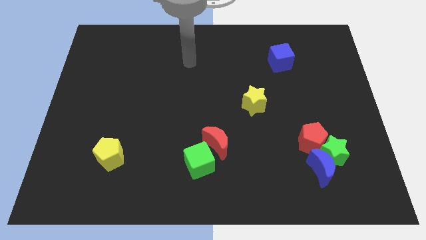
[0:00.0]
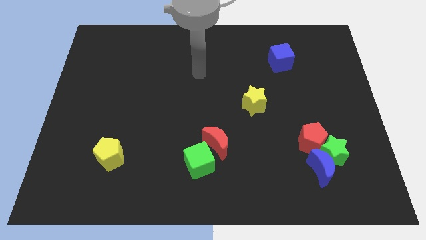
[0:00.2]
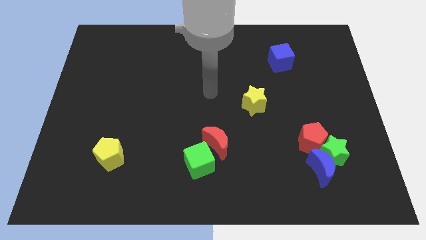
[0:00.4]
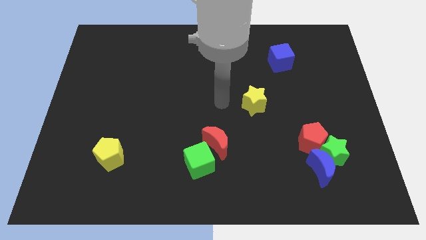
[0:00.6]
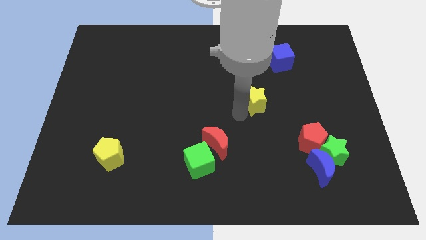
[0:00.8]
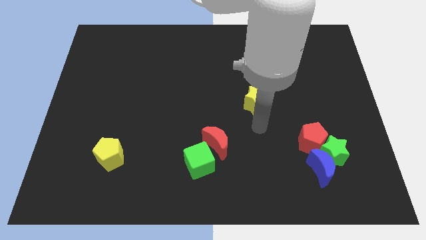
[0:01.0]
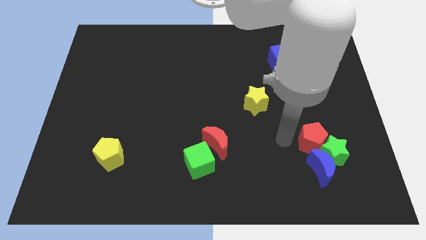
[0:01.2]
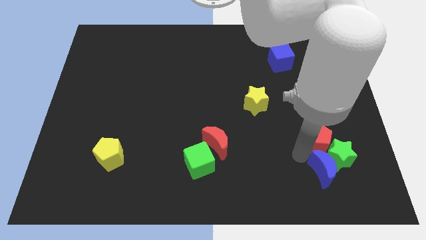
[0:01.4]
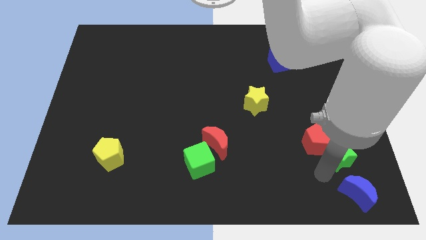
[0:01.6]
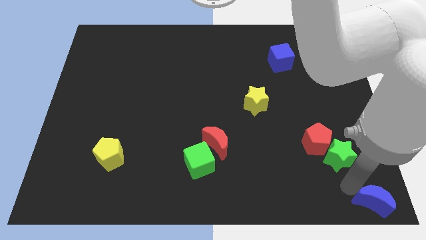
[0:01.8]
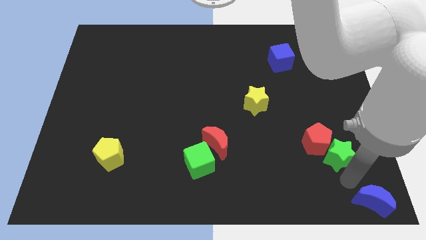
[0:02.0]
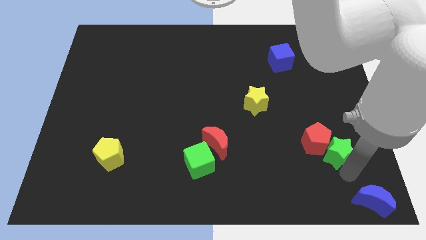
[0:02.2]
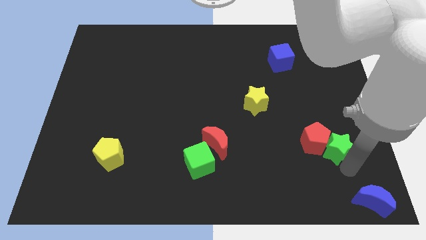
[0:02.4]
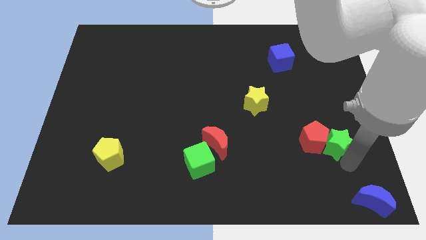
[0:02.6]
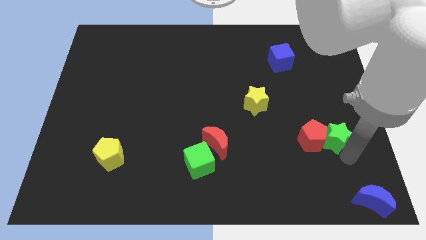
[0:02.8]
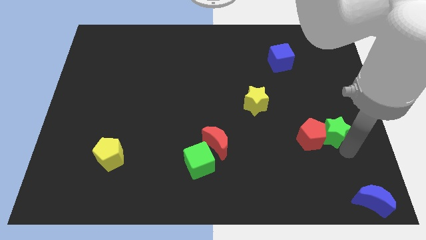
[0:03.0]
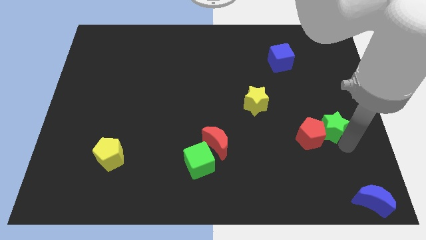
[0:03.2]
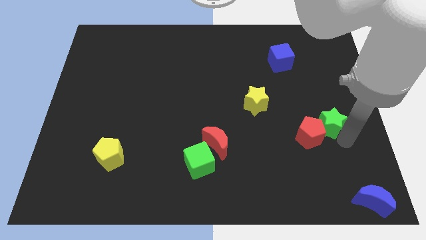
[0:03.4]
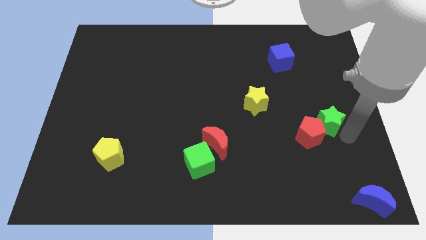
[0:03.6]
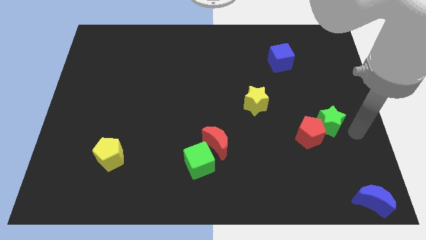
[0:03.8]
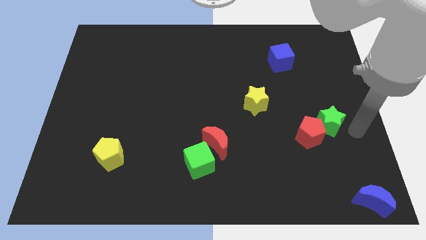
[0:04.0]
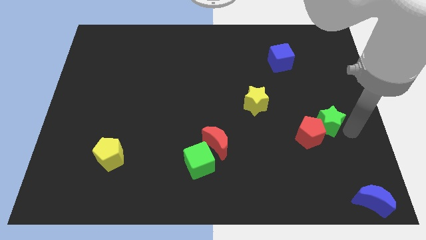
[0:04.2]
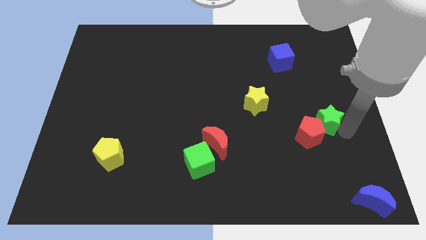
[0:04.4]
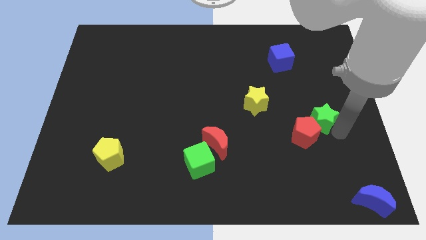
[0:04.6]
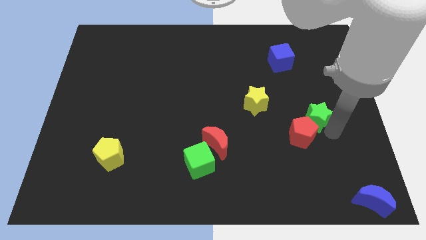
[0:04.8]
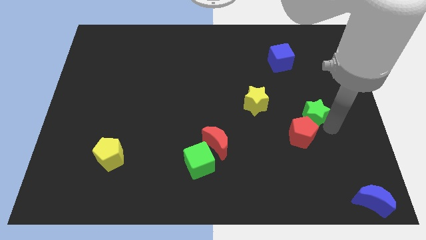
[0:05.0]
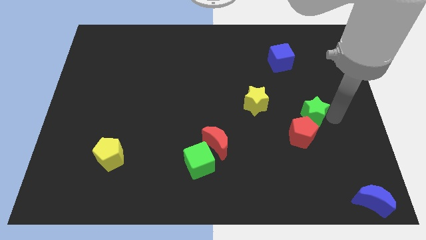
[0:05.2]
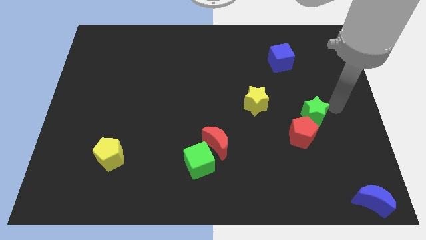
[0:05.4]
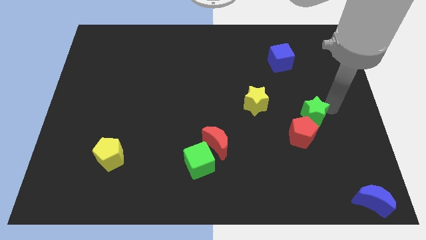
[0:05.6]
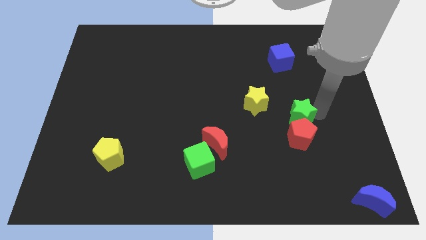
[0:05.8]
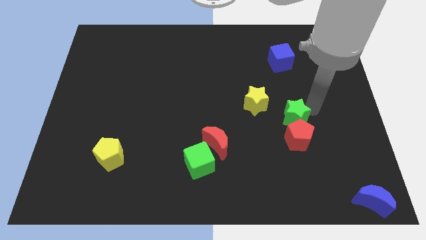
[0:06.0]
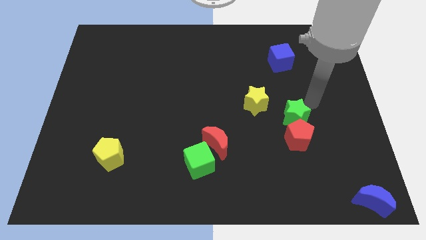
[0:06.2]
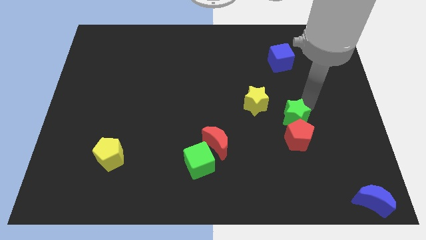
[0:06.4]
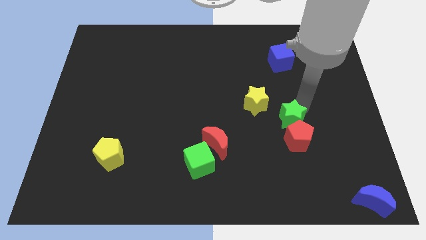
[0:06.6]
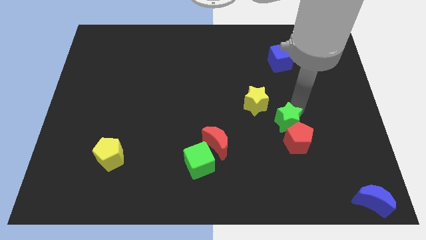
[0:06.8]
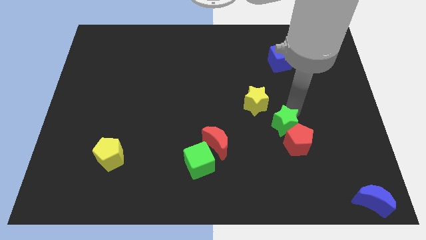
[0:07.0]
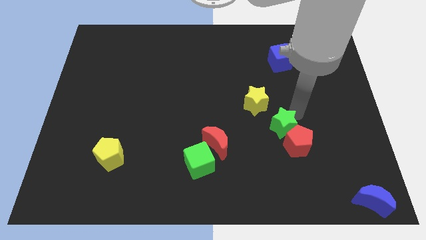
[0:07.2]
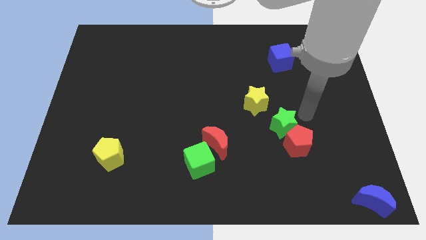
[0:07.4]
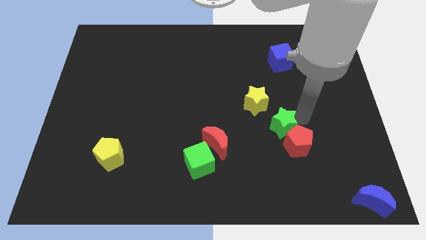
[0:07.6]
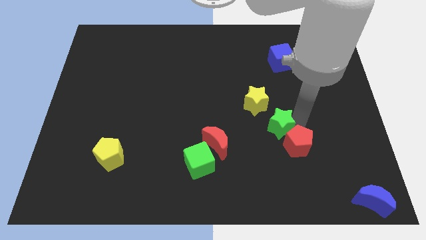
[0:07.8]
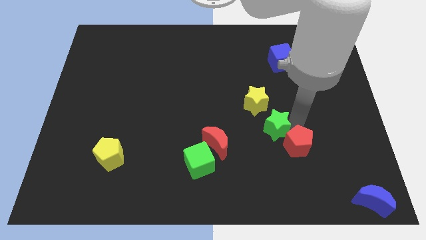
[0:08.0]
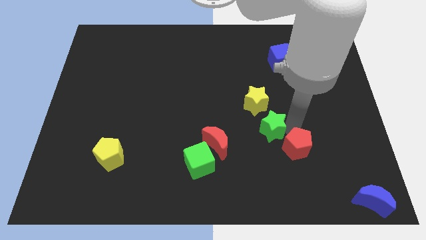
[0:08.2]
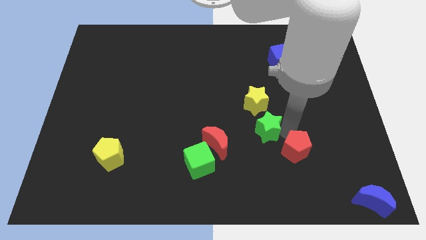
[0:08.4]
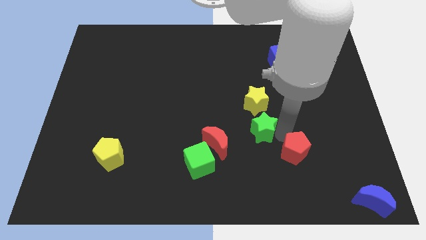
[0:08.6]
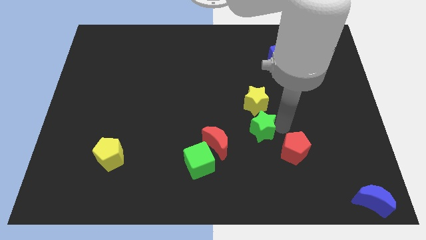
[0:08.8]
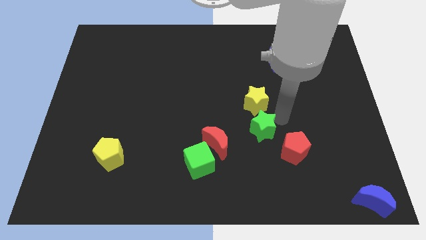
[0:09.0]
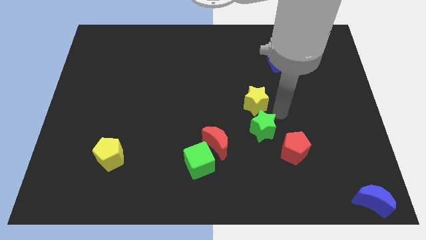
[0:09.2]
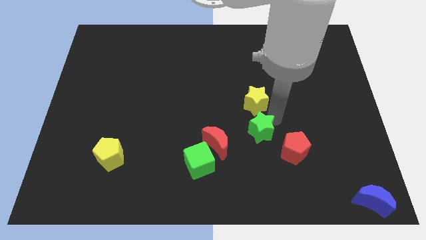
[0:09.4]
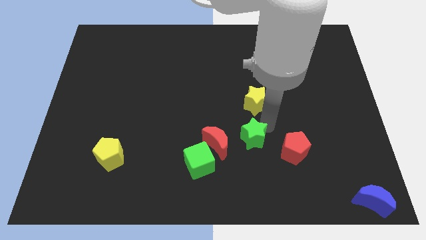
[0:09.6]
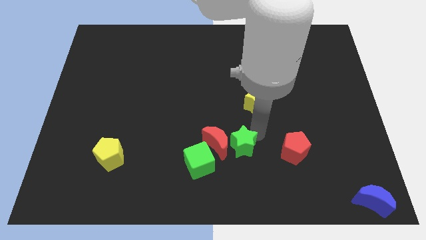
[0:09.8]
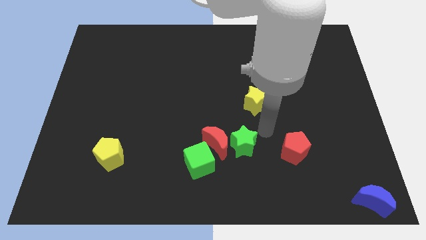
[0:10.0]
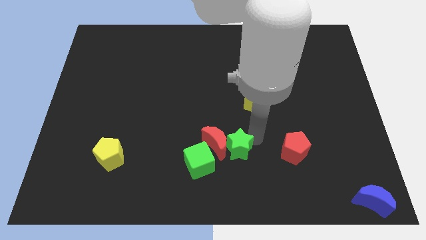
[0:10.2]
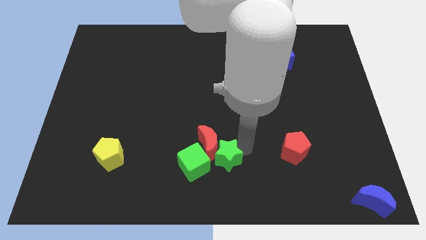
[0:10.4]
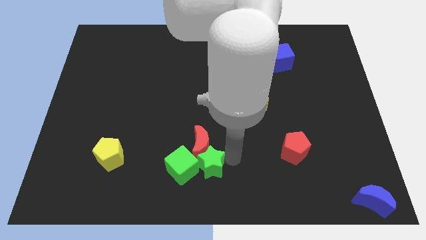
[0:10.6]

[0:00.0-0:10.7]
move the green star next to the green cube

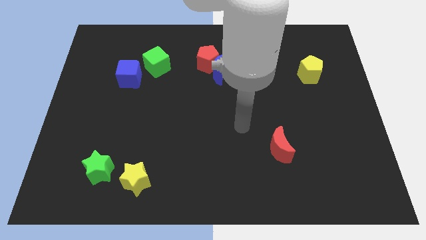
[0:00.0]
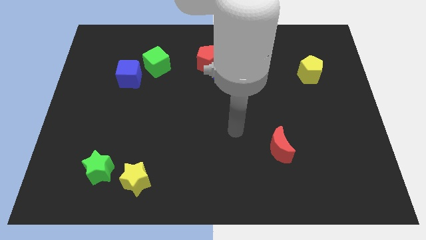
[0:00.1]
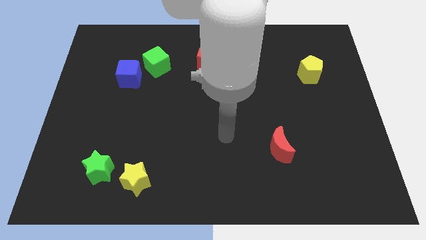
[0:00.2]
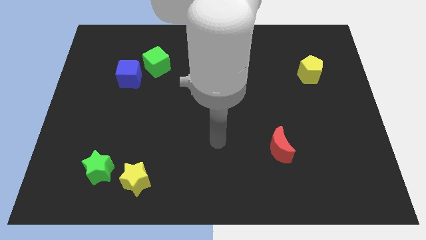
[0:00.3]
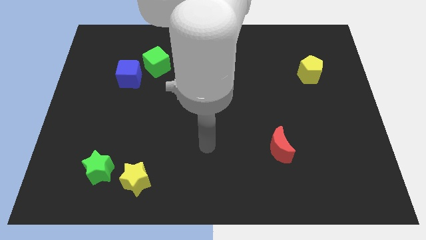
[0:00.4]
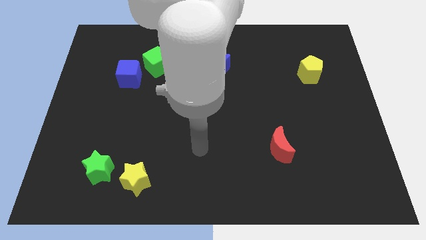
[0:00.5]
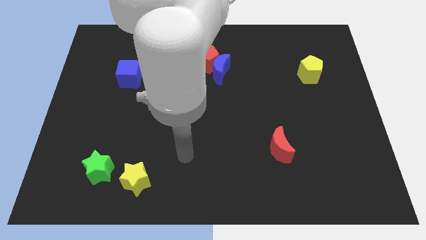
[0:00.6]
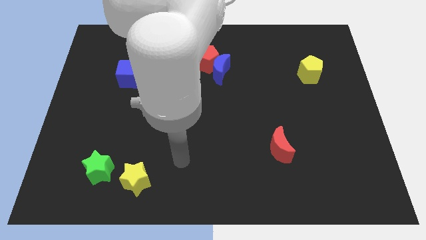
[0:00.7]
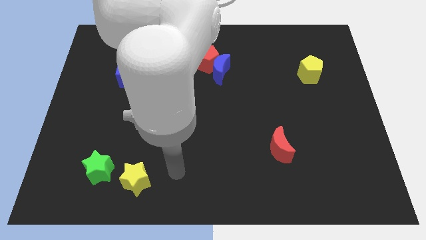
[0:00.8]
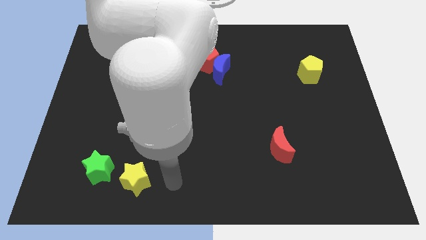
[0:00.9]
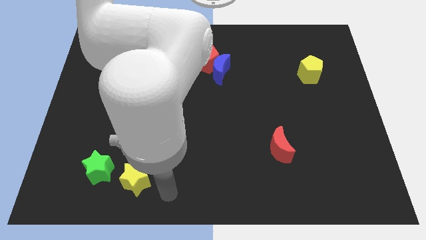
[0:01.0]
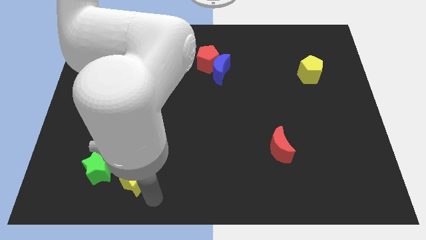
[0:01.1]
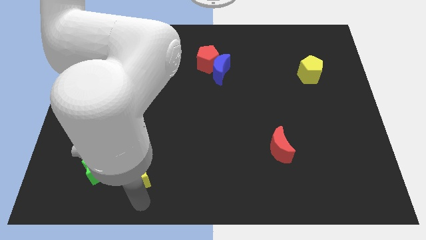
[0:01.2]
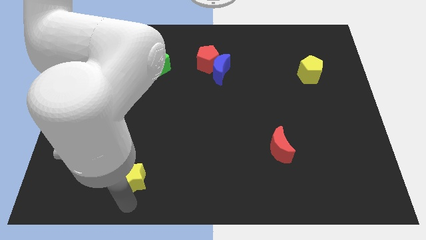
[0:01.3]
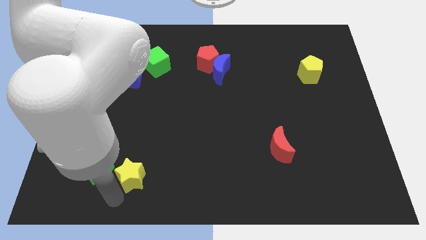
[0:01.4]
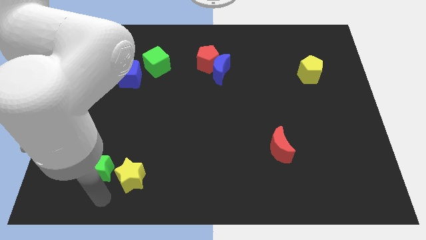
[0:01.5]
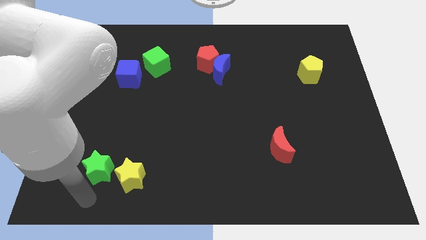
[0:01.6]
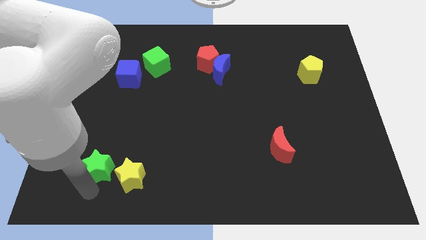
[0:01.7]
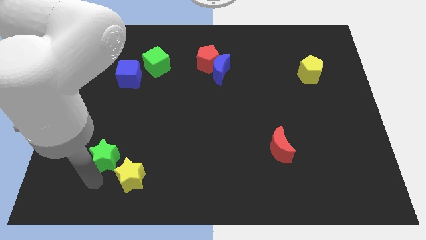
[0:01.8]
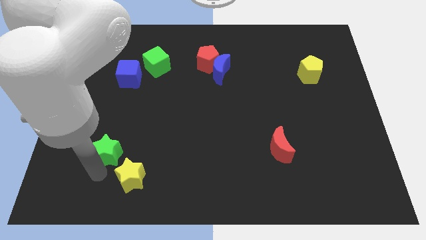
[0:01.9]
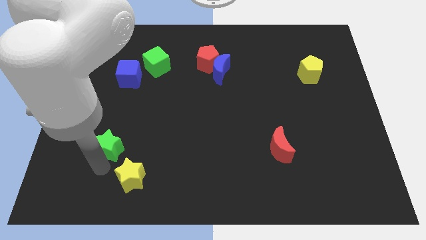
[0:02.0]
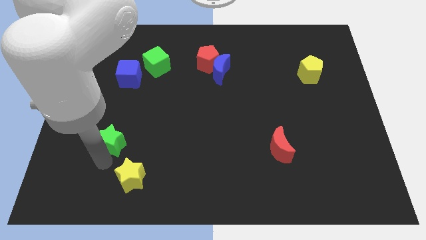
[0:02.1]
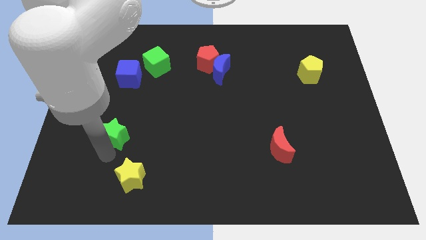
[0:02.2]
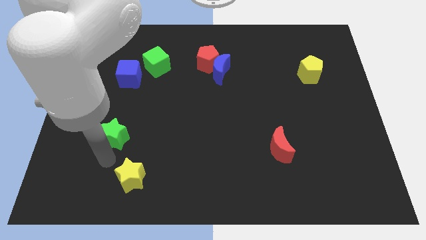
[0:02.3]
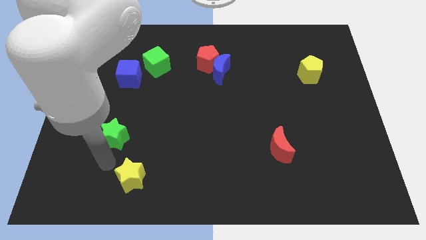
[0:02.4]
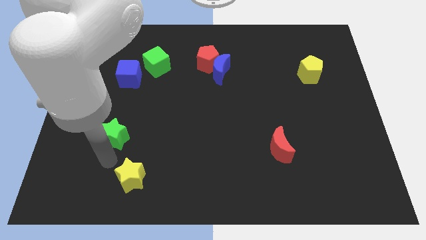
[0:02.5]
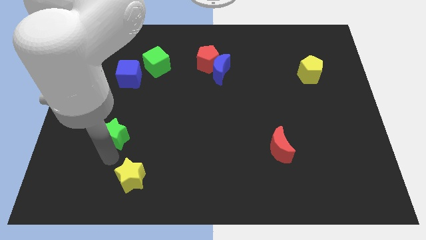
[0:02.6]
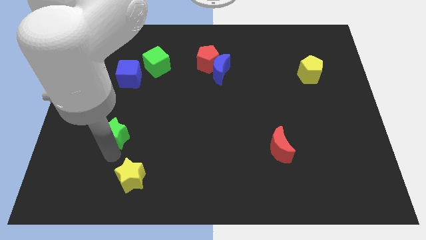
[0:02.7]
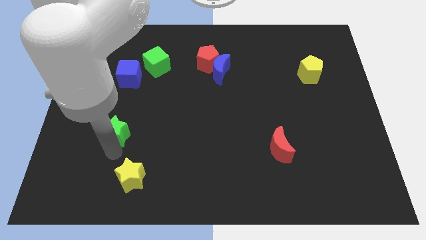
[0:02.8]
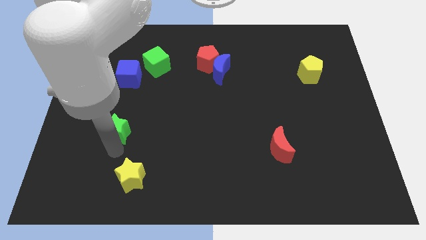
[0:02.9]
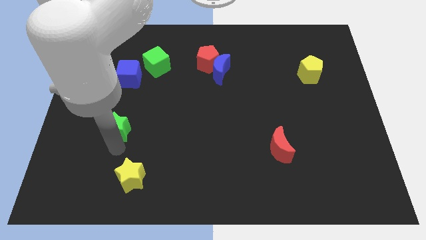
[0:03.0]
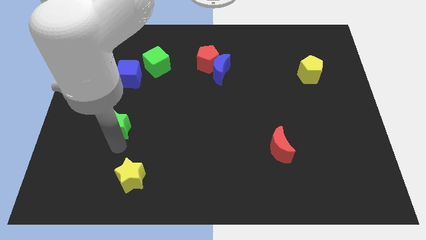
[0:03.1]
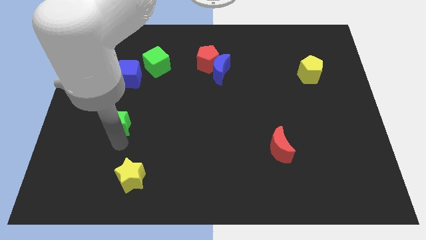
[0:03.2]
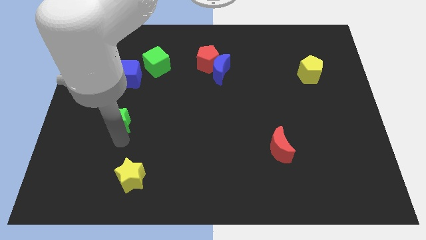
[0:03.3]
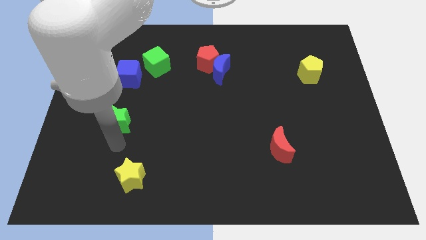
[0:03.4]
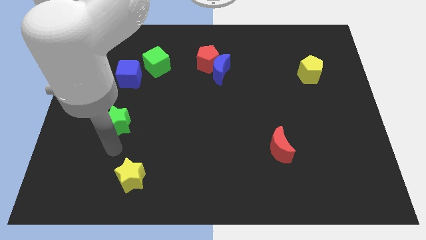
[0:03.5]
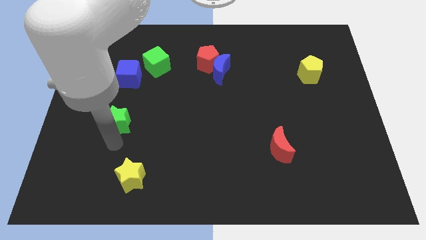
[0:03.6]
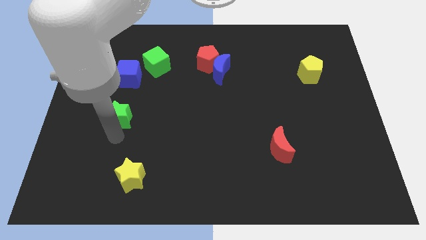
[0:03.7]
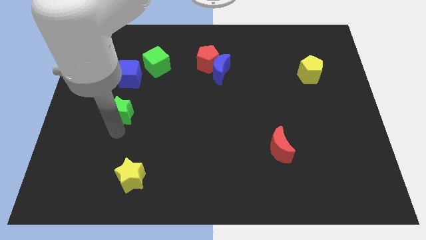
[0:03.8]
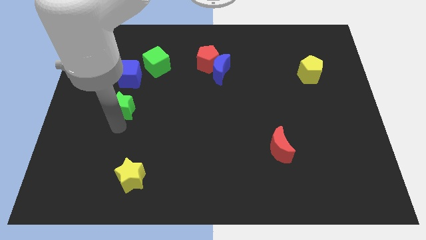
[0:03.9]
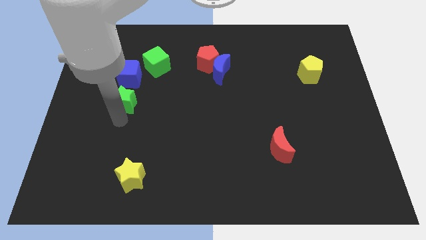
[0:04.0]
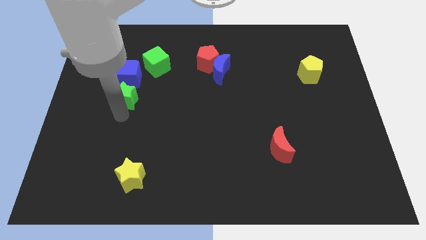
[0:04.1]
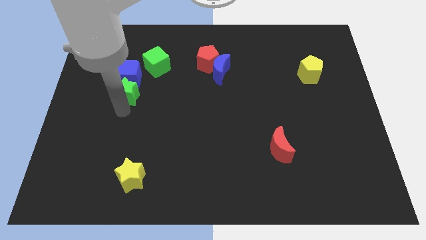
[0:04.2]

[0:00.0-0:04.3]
move the green star next to the blue cube
